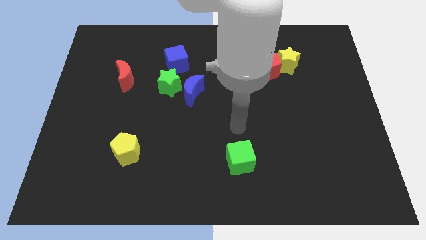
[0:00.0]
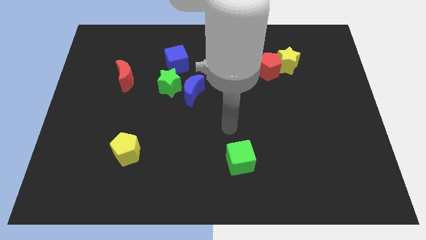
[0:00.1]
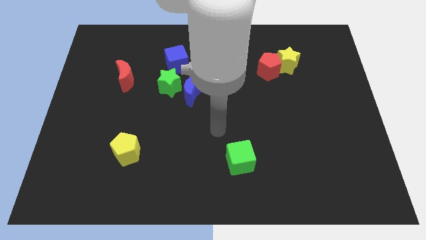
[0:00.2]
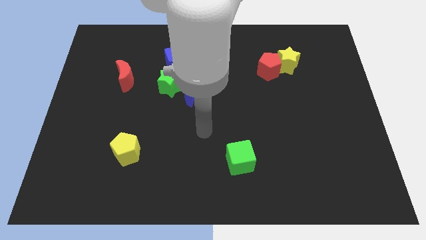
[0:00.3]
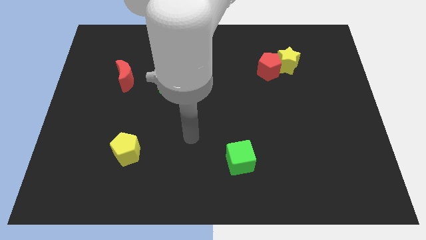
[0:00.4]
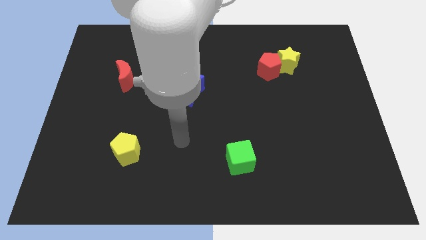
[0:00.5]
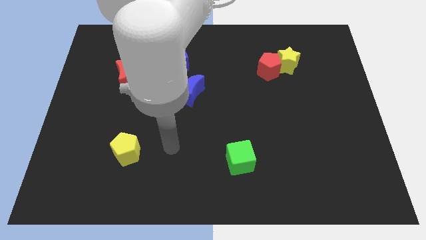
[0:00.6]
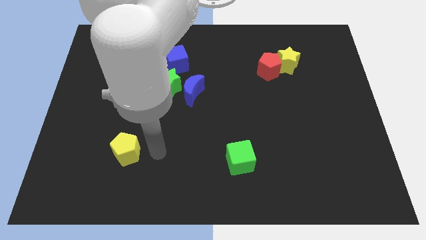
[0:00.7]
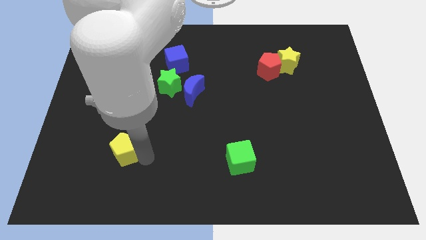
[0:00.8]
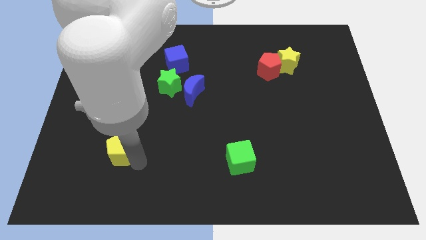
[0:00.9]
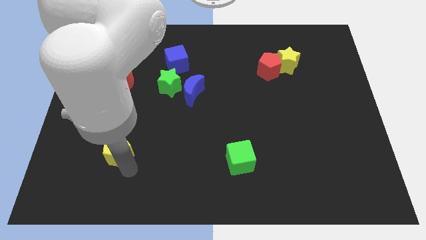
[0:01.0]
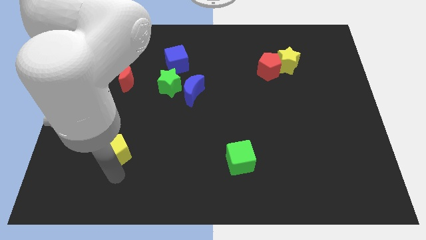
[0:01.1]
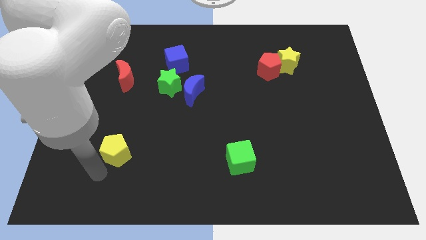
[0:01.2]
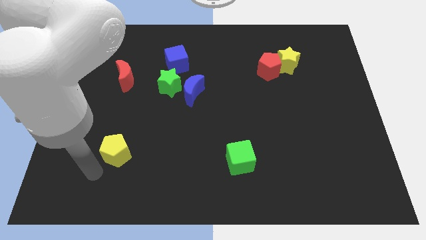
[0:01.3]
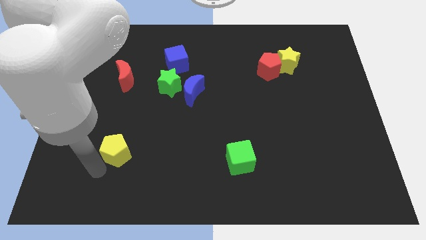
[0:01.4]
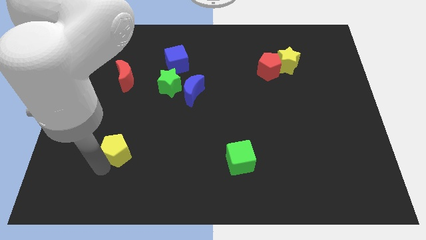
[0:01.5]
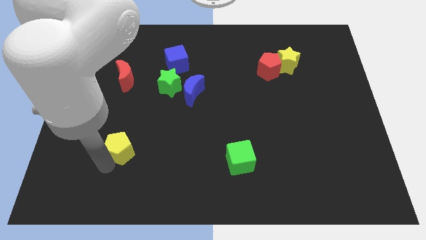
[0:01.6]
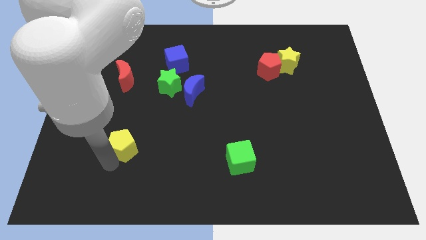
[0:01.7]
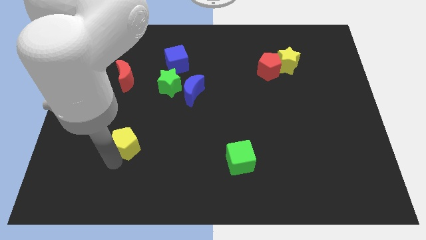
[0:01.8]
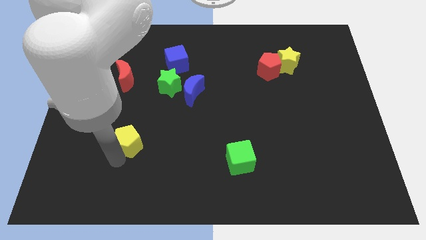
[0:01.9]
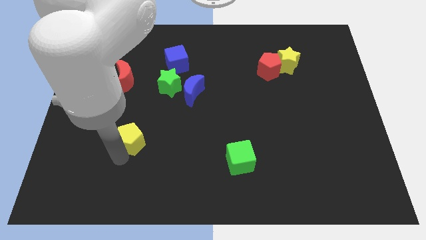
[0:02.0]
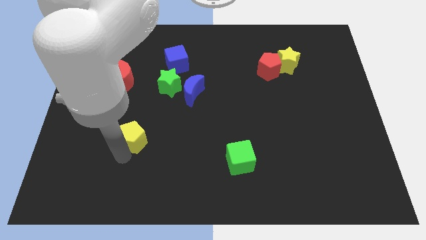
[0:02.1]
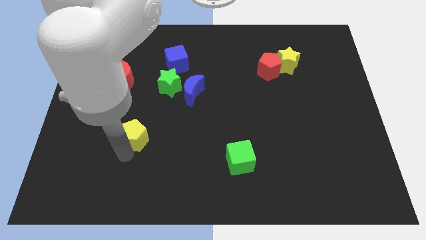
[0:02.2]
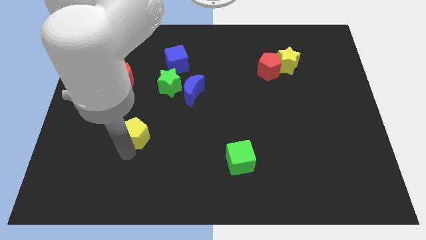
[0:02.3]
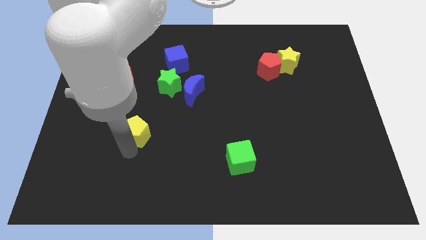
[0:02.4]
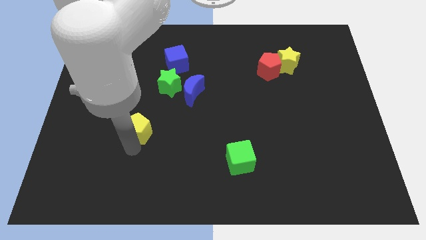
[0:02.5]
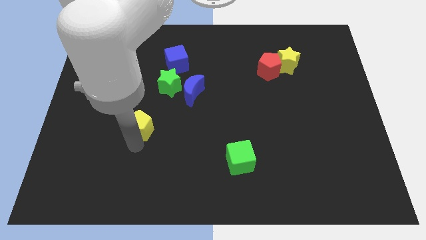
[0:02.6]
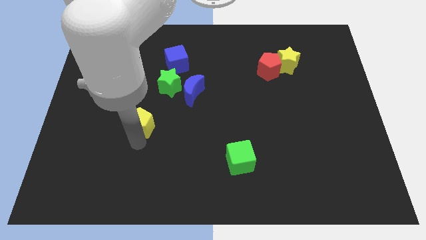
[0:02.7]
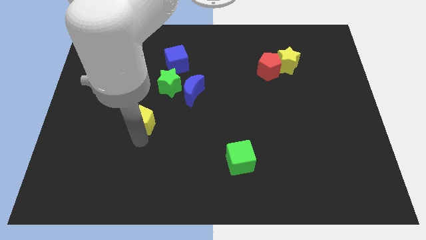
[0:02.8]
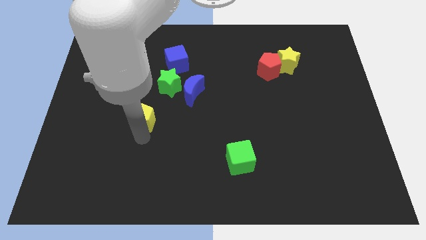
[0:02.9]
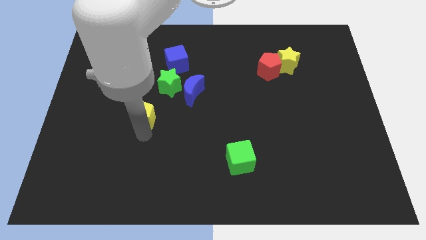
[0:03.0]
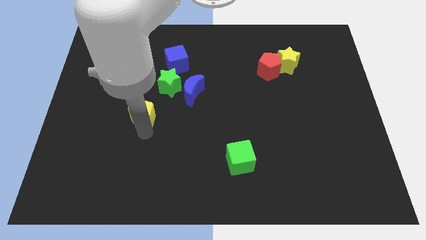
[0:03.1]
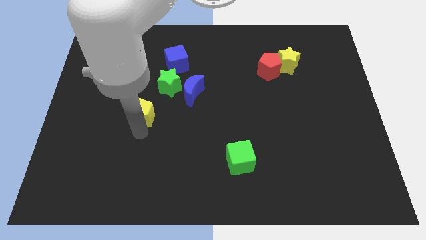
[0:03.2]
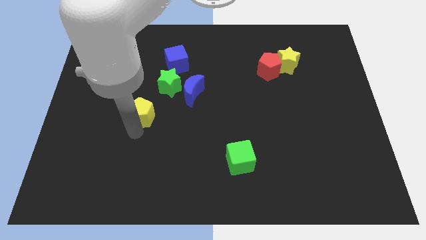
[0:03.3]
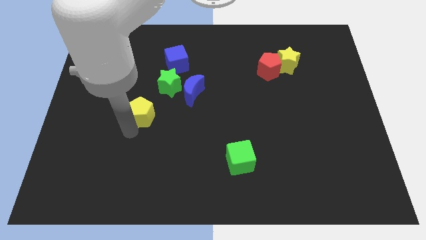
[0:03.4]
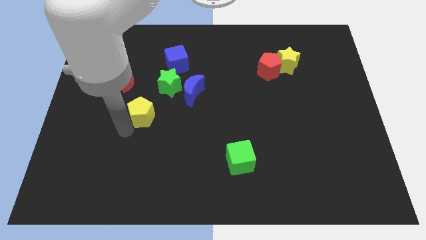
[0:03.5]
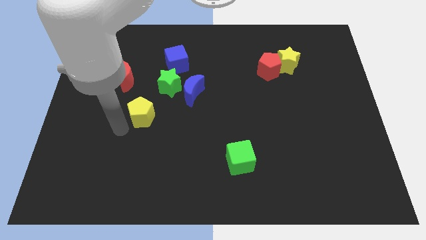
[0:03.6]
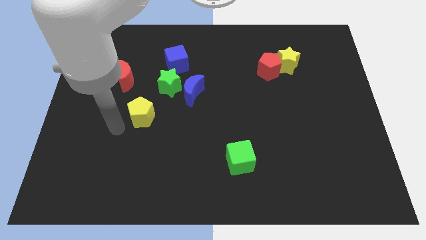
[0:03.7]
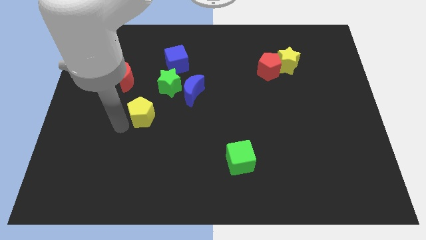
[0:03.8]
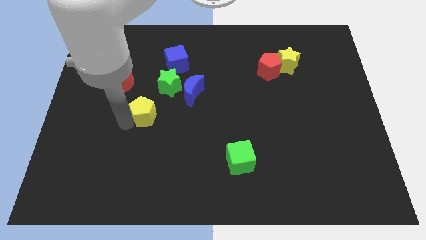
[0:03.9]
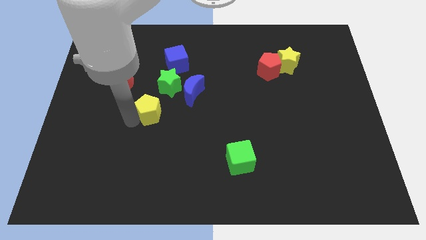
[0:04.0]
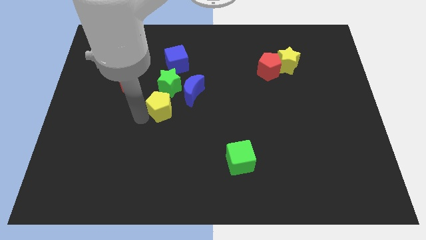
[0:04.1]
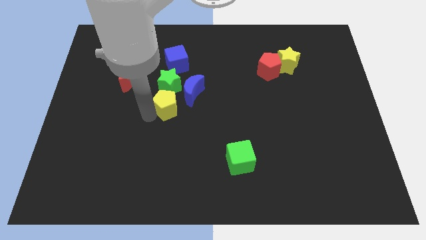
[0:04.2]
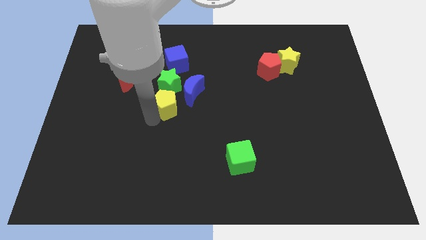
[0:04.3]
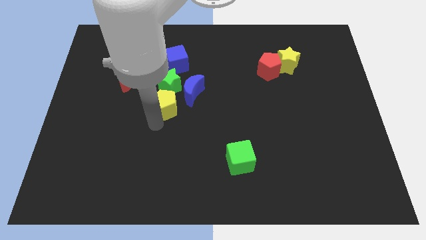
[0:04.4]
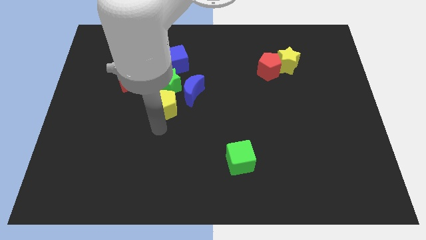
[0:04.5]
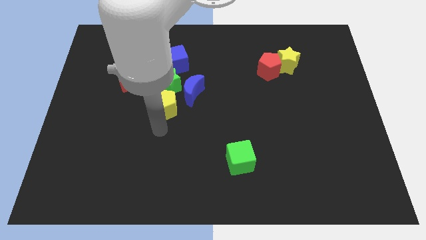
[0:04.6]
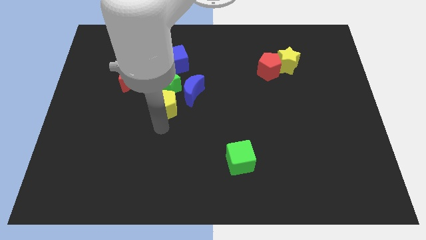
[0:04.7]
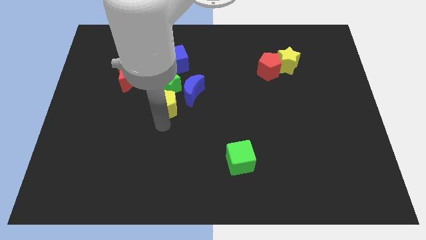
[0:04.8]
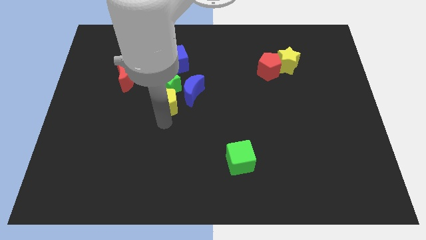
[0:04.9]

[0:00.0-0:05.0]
push the yellow pentagon to the green star

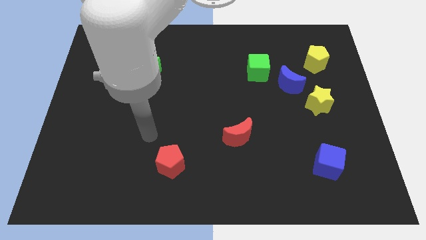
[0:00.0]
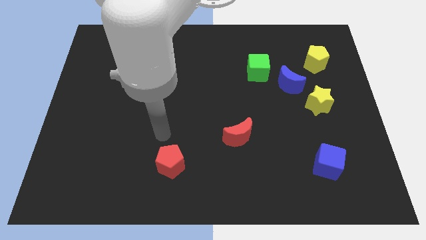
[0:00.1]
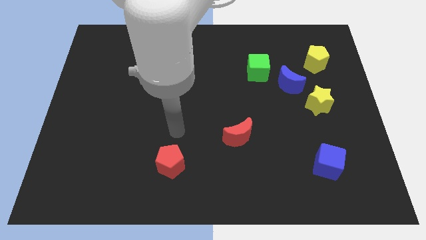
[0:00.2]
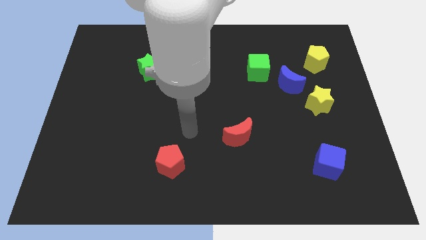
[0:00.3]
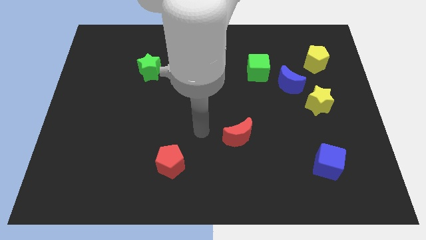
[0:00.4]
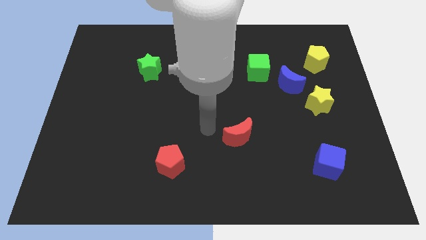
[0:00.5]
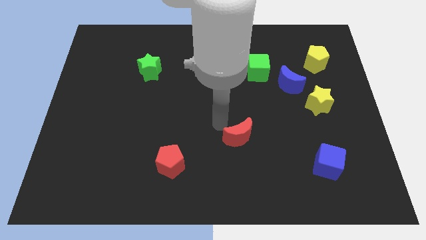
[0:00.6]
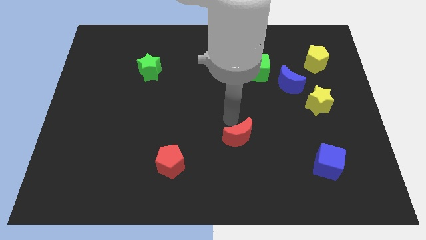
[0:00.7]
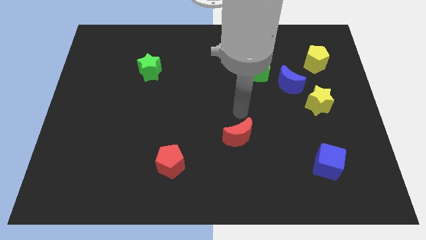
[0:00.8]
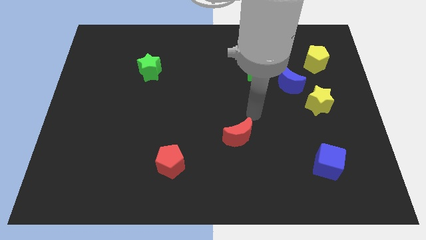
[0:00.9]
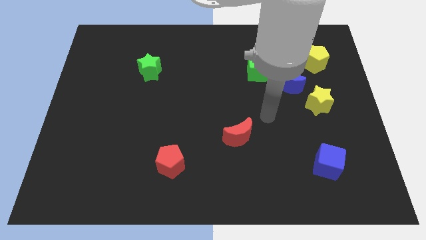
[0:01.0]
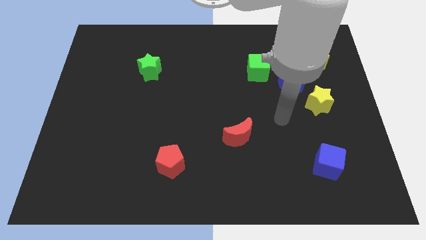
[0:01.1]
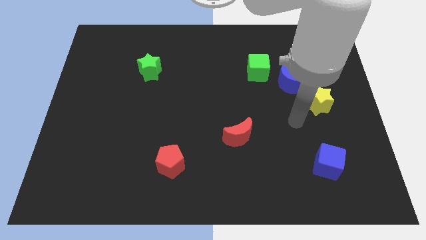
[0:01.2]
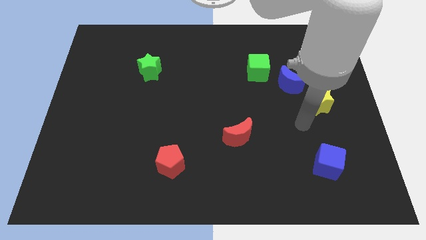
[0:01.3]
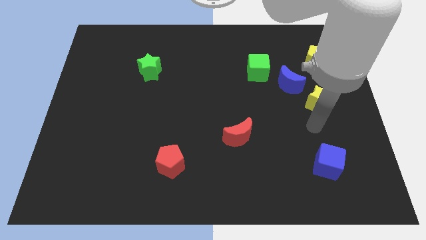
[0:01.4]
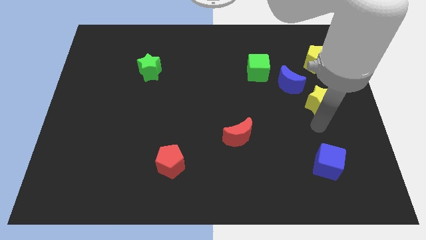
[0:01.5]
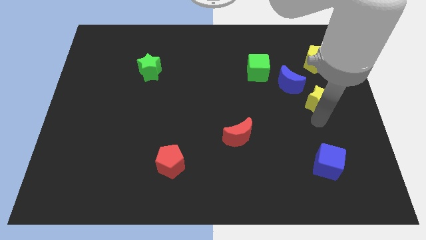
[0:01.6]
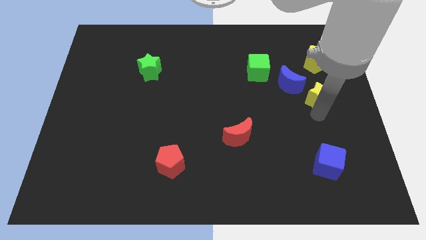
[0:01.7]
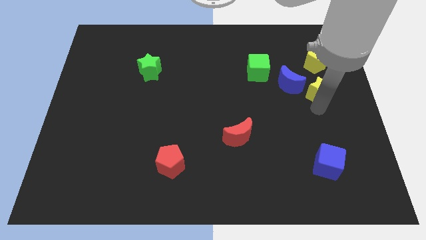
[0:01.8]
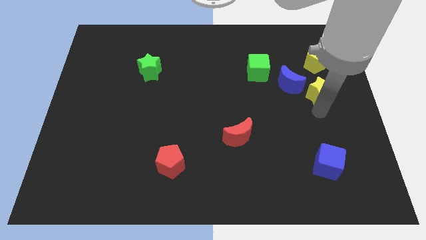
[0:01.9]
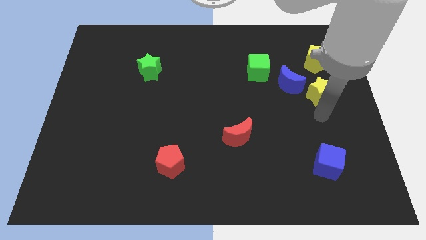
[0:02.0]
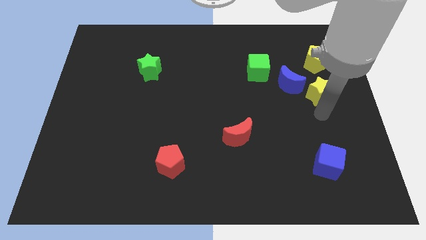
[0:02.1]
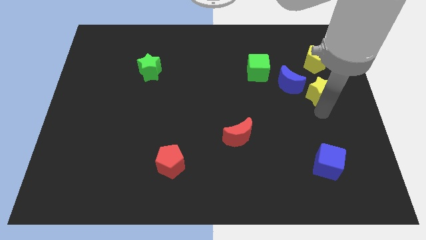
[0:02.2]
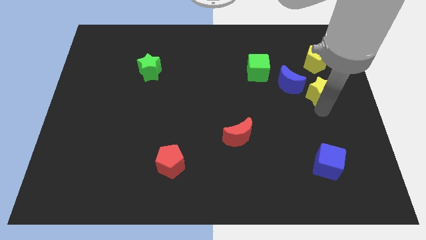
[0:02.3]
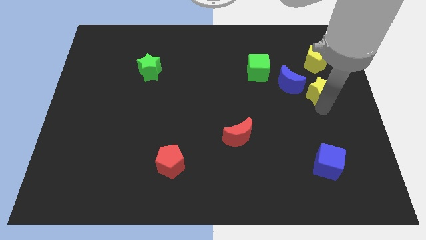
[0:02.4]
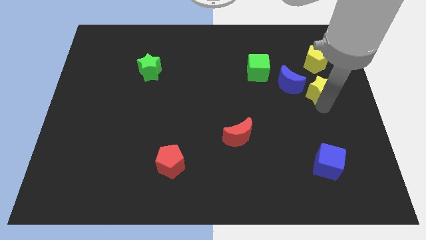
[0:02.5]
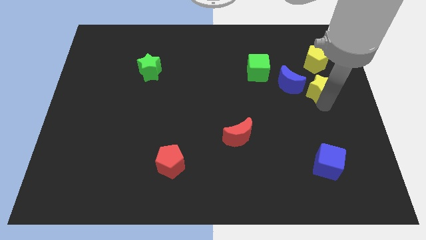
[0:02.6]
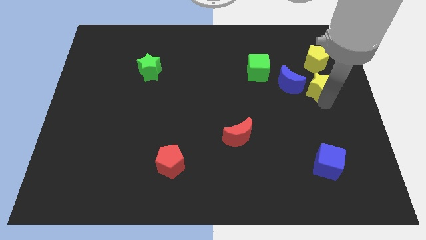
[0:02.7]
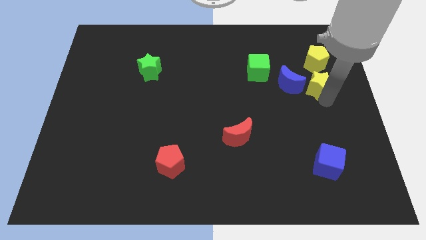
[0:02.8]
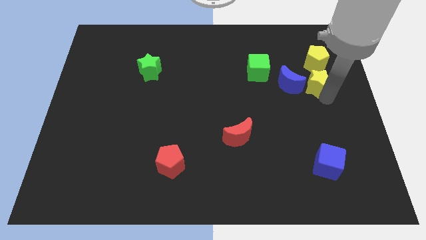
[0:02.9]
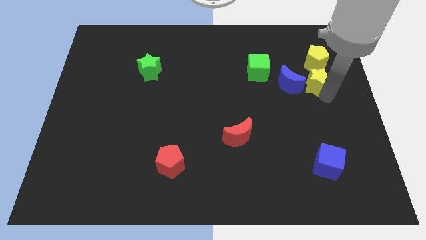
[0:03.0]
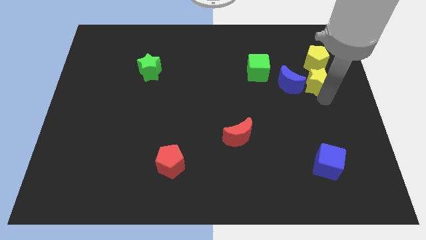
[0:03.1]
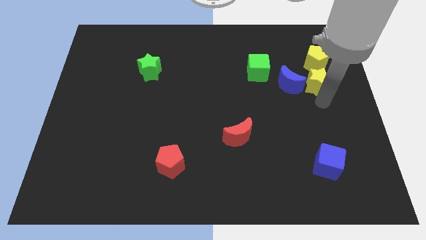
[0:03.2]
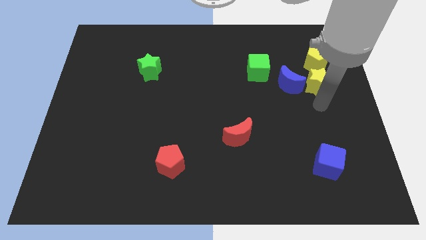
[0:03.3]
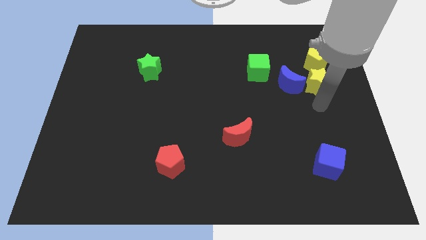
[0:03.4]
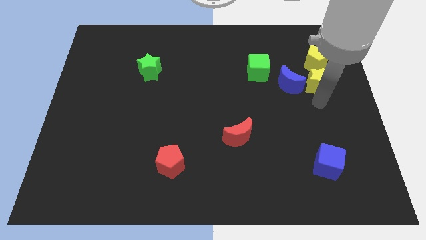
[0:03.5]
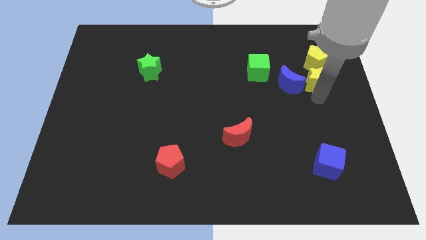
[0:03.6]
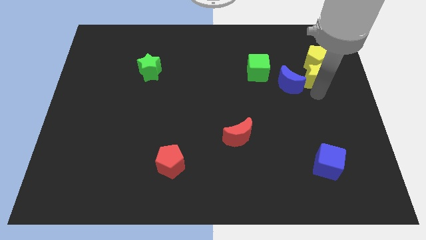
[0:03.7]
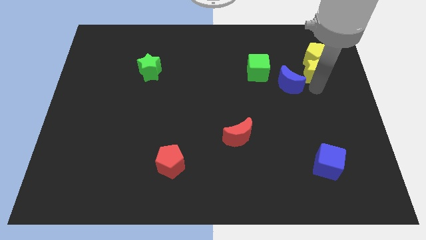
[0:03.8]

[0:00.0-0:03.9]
push the yellow star towards the yellow pentagon
